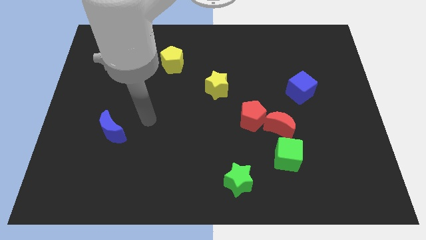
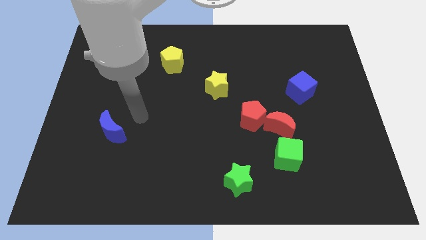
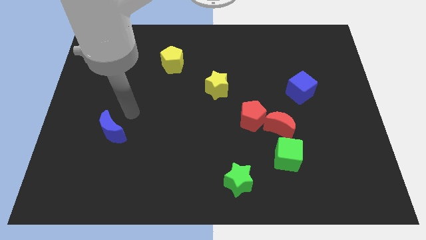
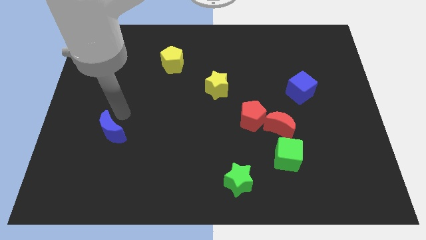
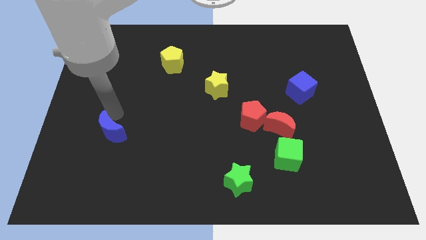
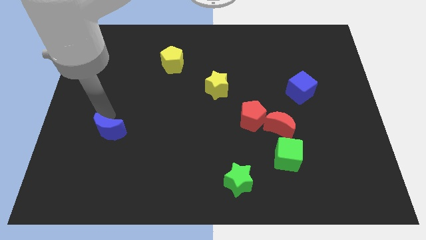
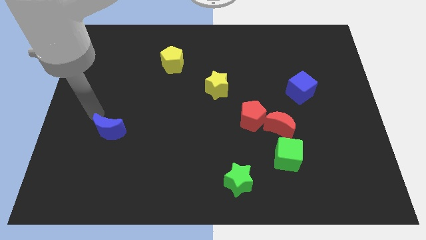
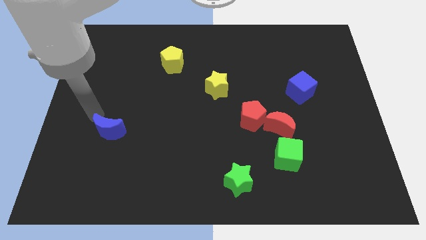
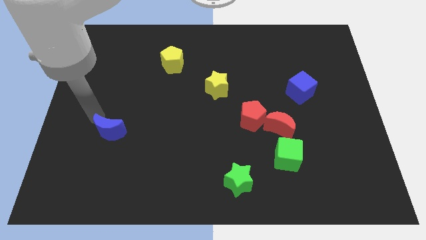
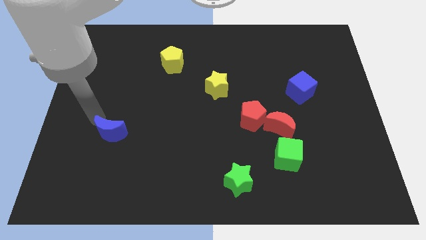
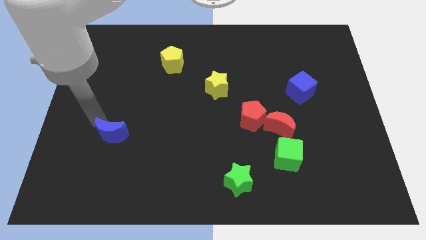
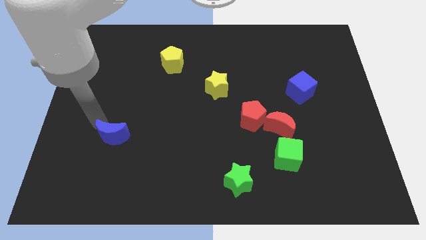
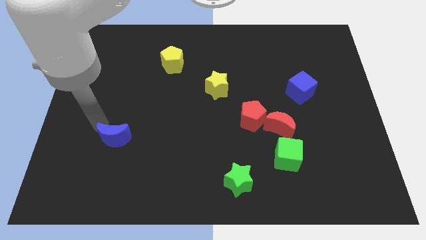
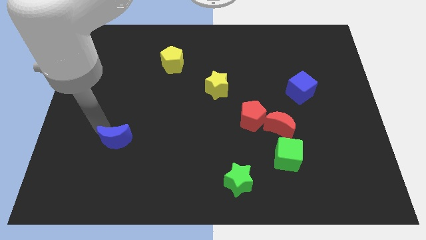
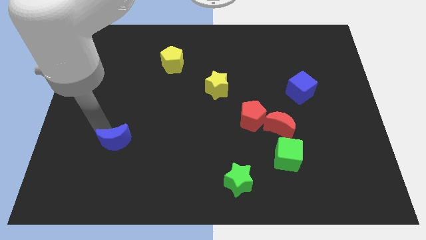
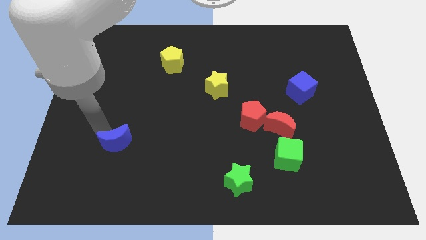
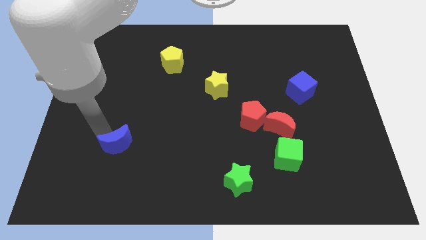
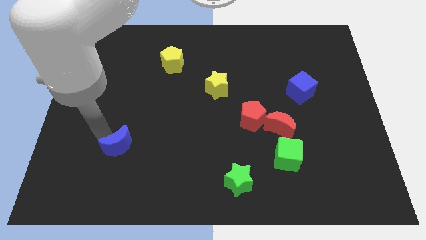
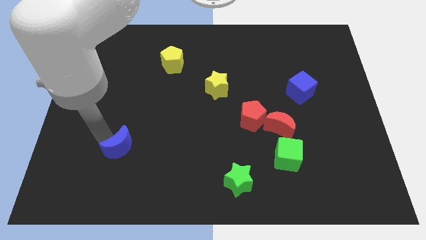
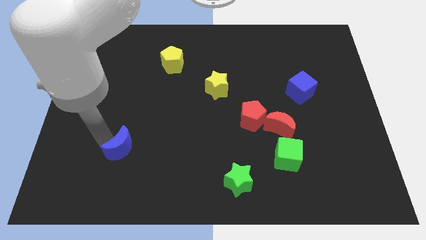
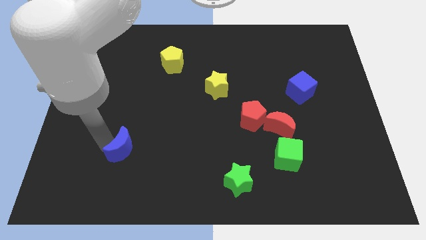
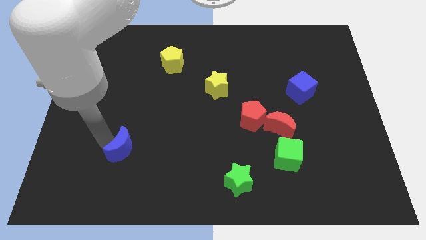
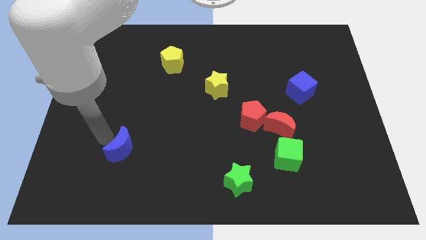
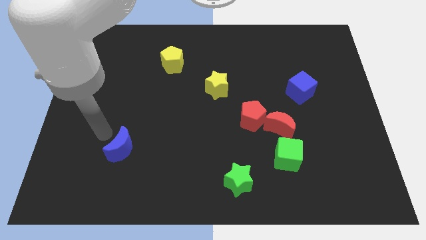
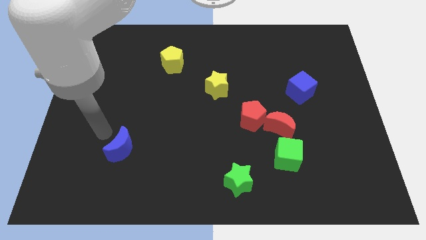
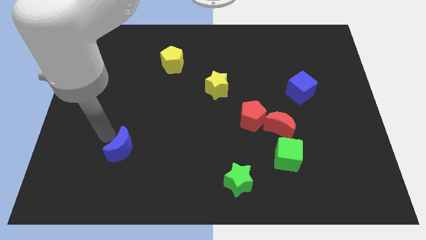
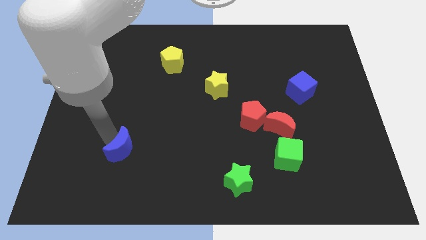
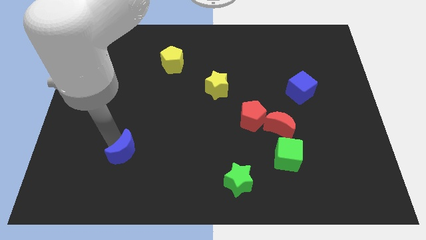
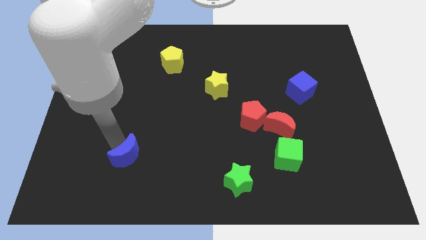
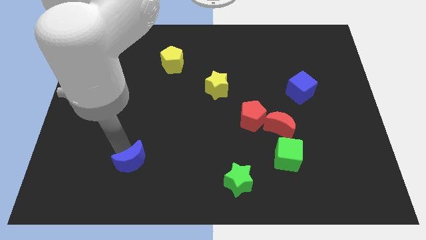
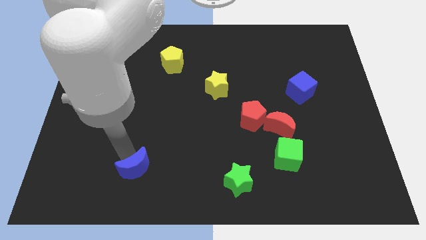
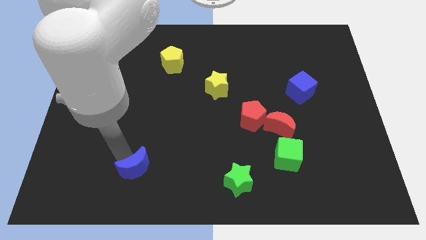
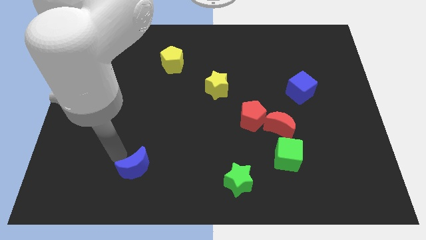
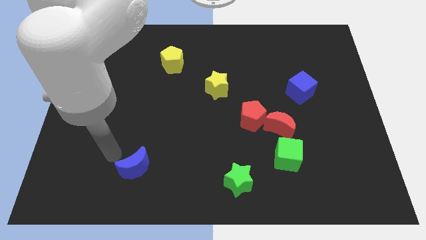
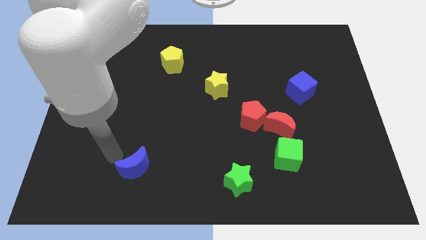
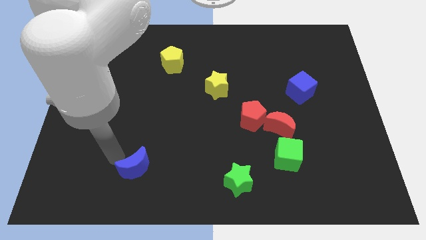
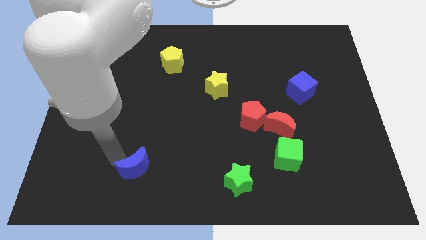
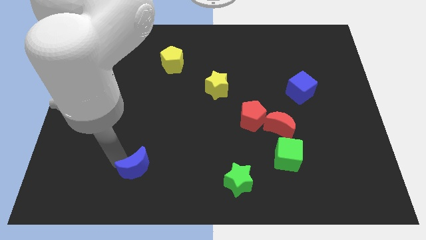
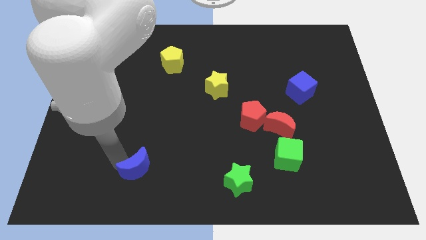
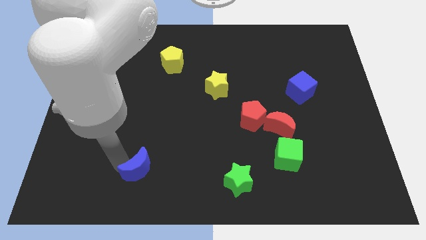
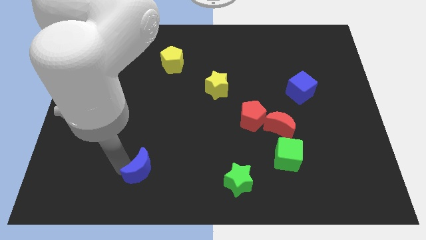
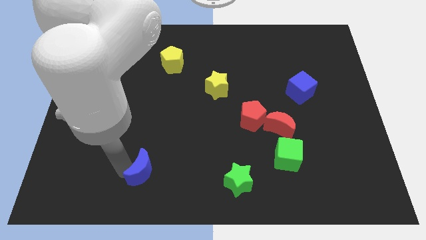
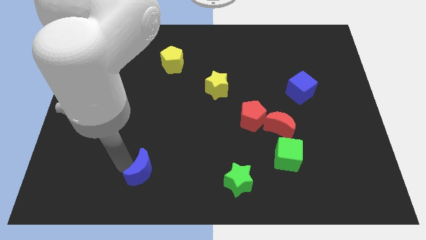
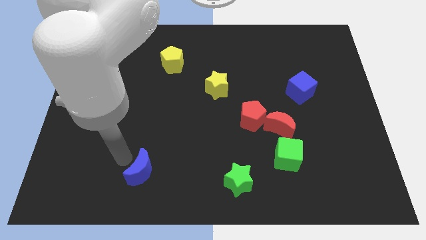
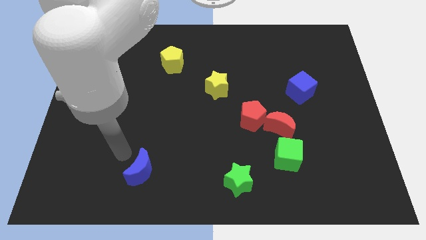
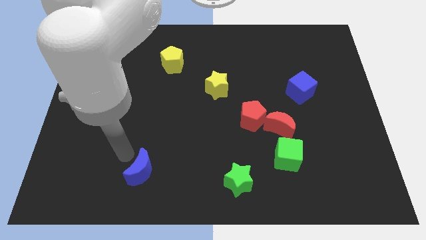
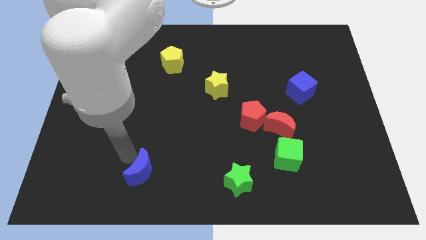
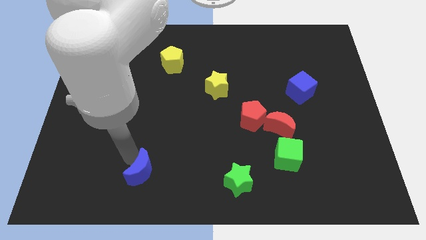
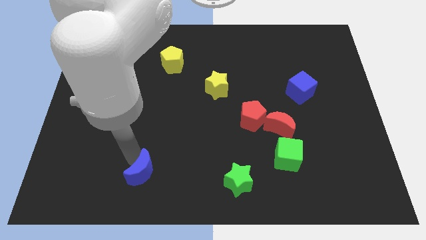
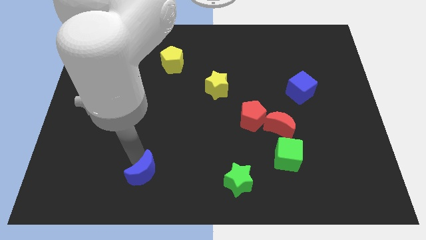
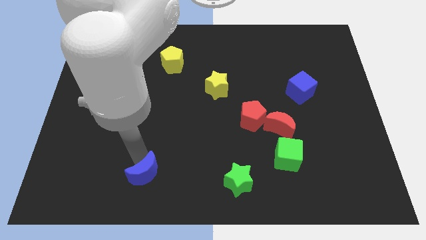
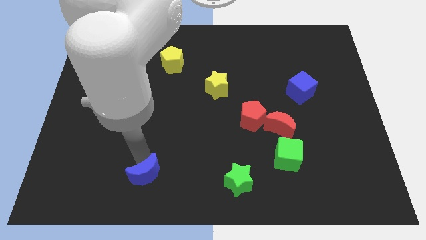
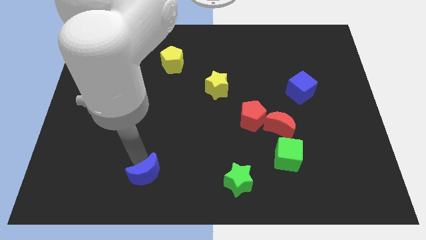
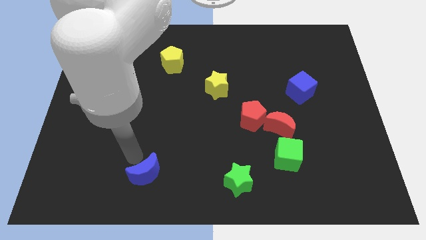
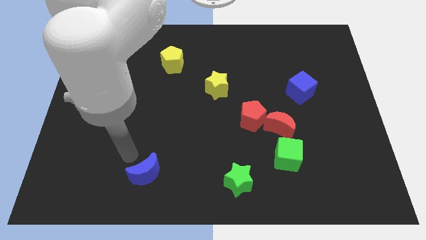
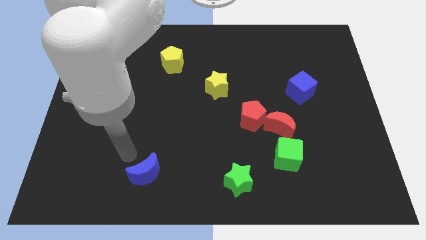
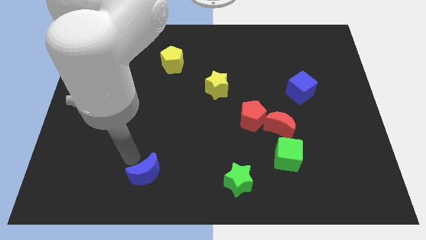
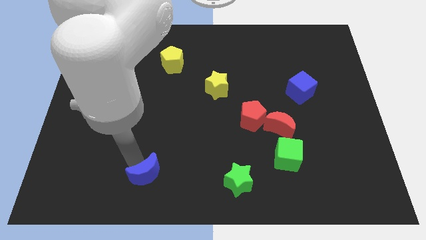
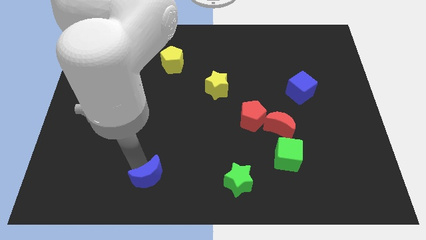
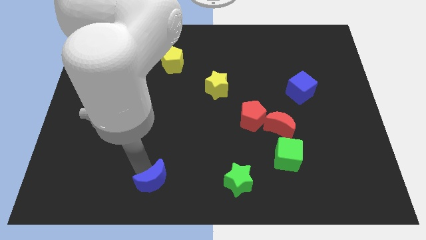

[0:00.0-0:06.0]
push the blue moon to the bottom side
